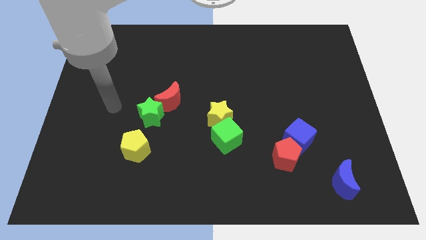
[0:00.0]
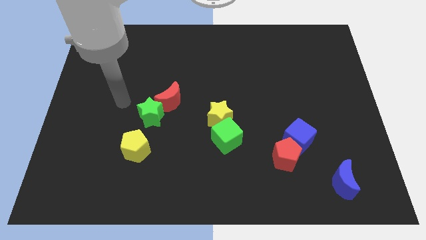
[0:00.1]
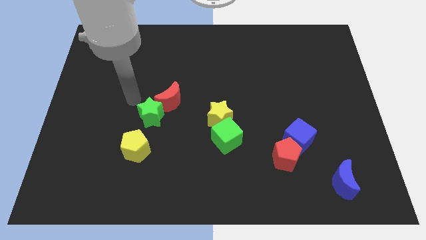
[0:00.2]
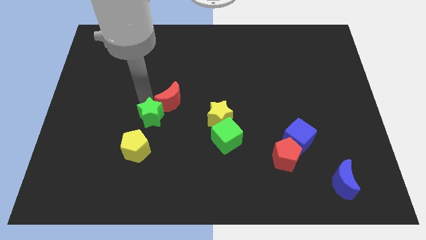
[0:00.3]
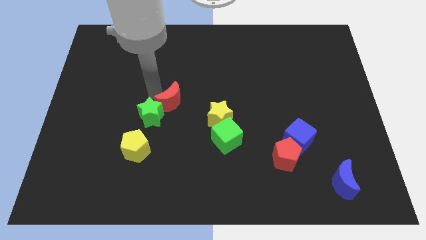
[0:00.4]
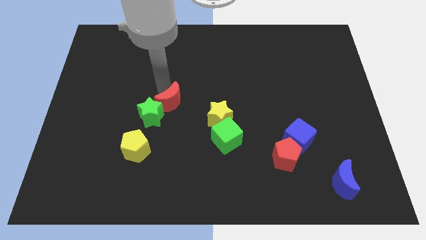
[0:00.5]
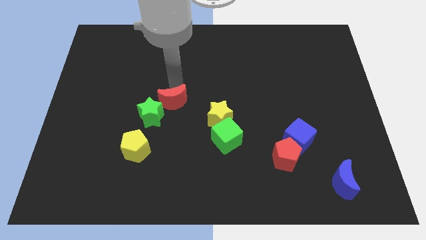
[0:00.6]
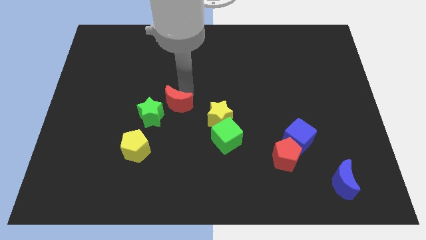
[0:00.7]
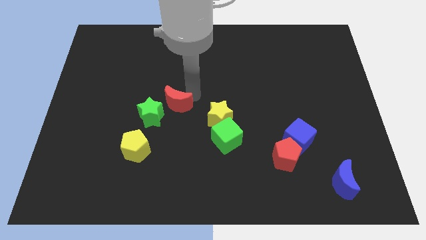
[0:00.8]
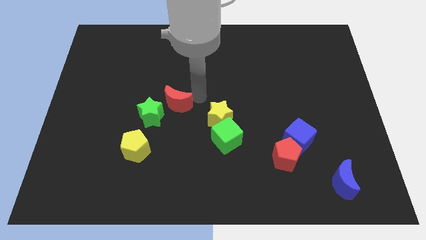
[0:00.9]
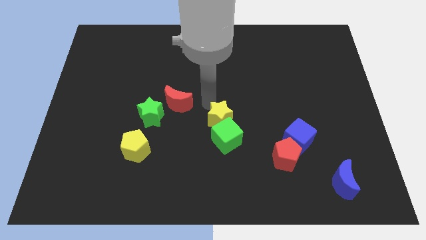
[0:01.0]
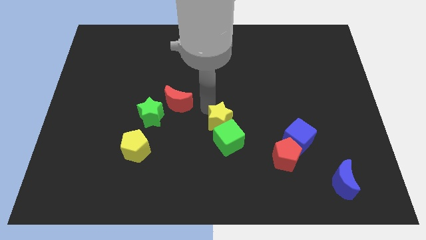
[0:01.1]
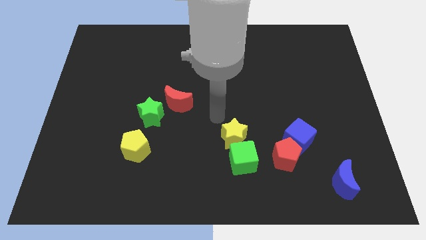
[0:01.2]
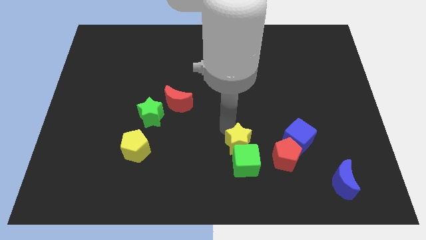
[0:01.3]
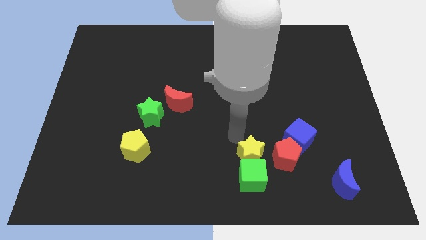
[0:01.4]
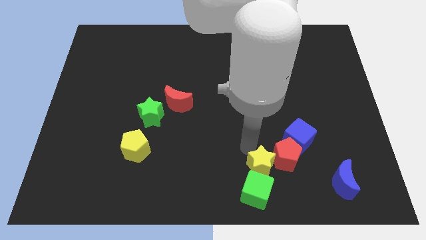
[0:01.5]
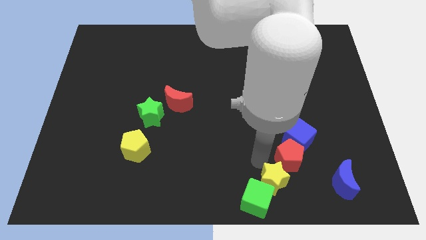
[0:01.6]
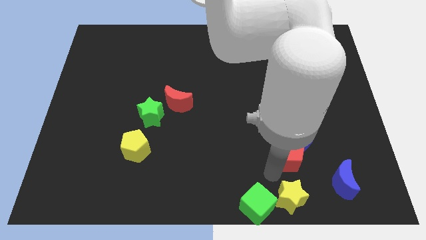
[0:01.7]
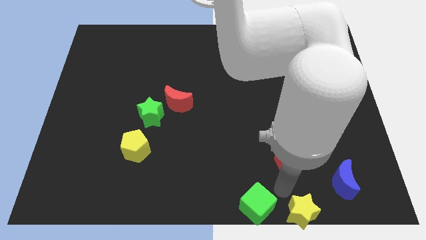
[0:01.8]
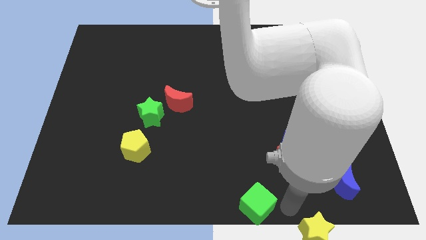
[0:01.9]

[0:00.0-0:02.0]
pull the green cube apart from the yellow star

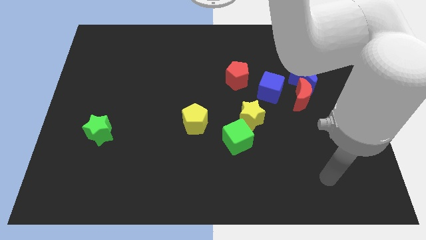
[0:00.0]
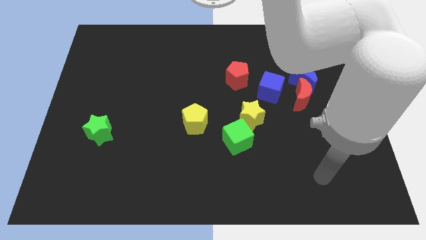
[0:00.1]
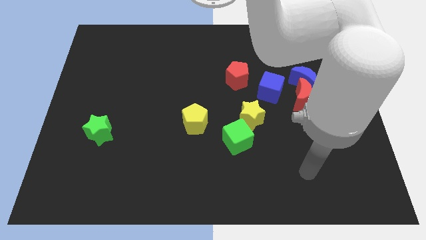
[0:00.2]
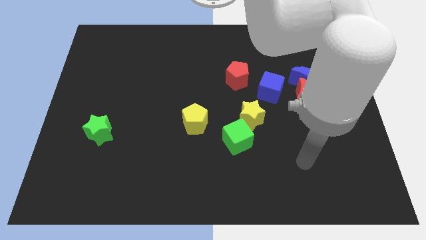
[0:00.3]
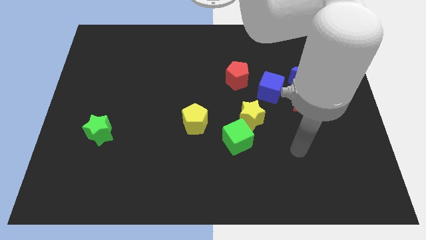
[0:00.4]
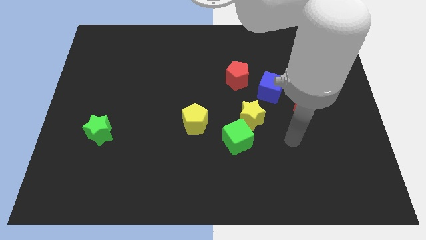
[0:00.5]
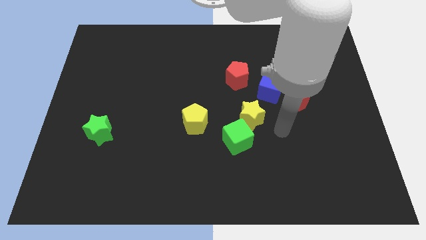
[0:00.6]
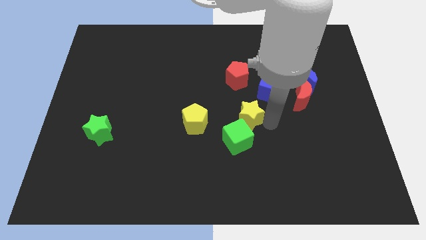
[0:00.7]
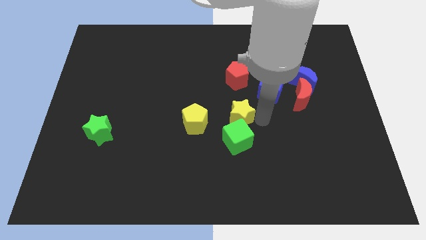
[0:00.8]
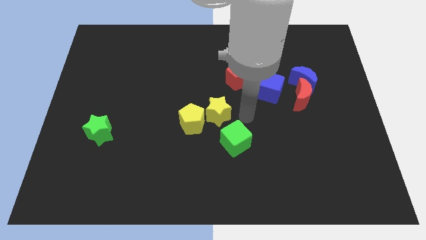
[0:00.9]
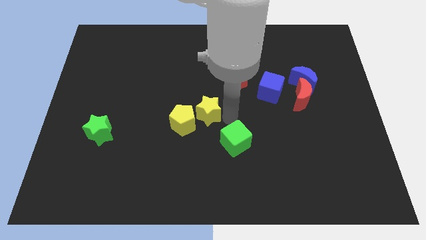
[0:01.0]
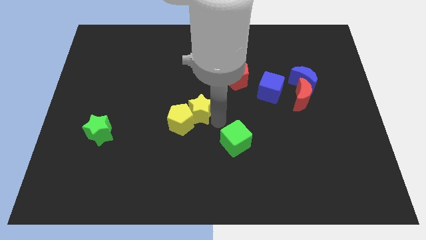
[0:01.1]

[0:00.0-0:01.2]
move the green cube away from the yellow star

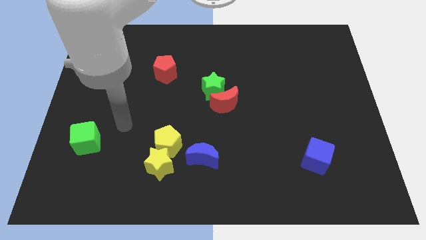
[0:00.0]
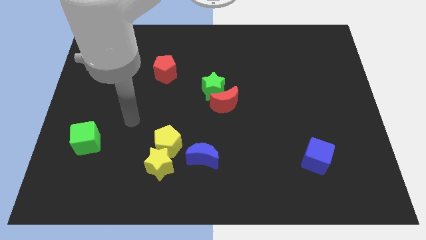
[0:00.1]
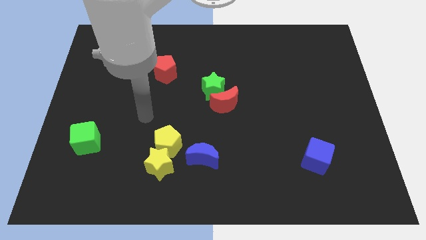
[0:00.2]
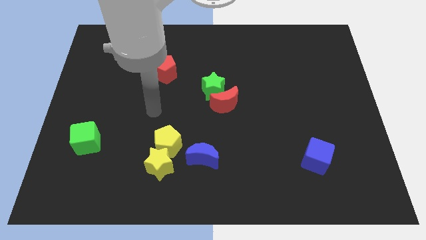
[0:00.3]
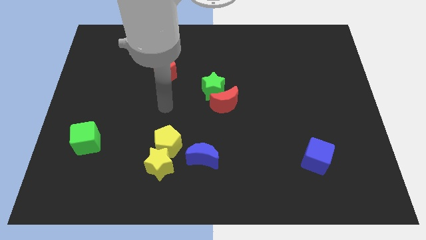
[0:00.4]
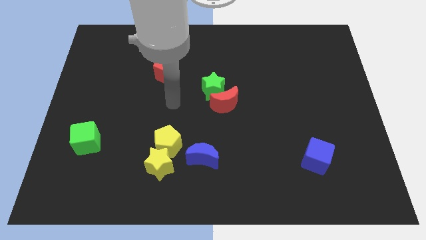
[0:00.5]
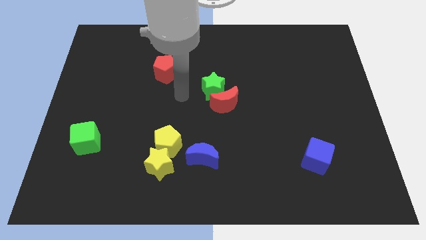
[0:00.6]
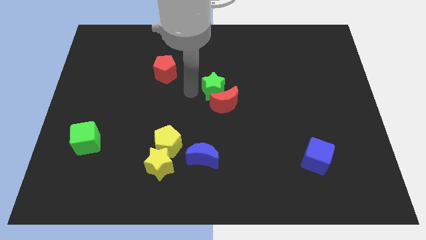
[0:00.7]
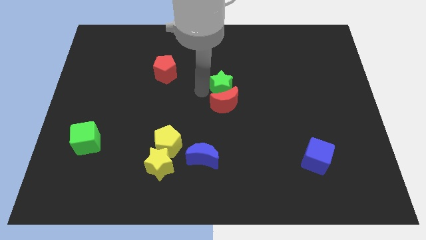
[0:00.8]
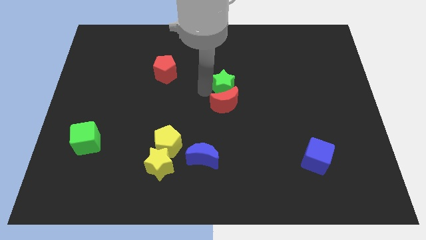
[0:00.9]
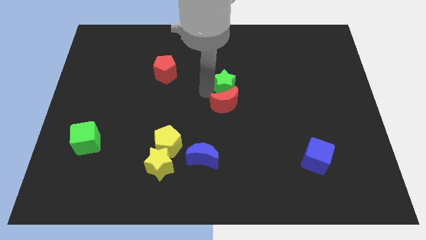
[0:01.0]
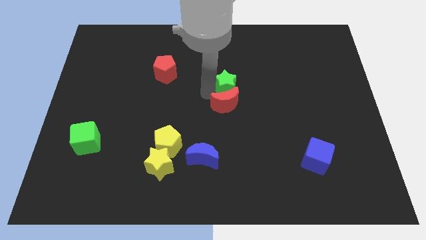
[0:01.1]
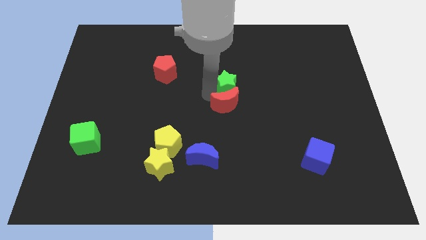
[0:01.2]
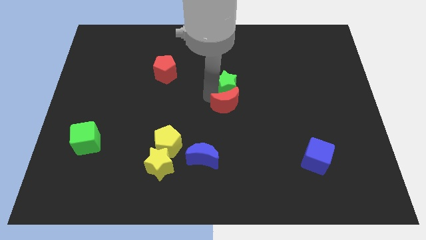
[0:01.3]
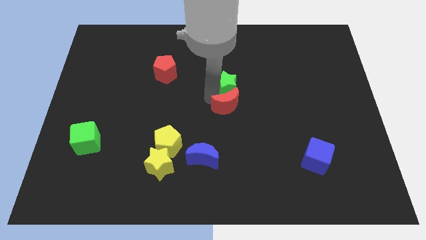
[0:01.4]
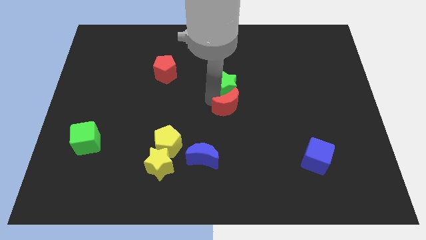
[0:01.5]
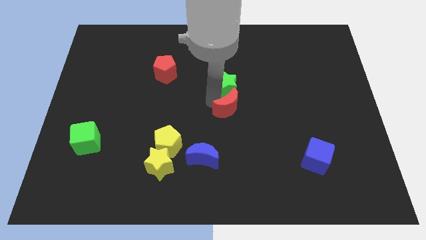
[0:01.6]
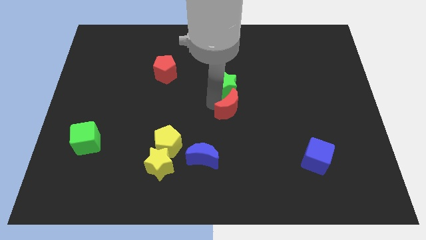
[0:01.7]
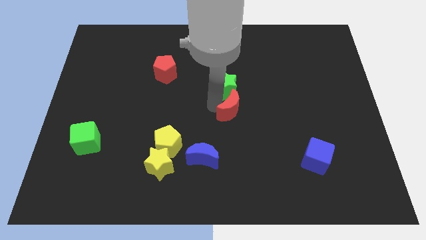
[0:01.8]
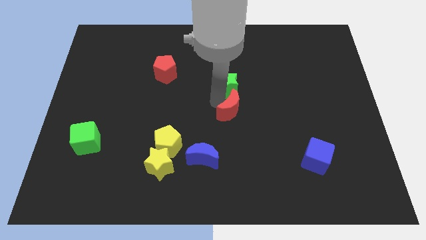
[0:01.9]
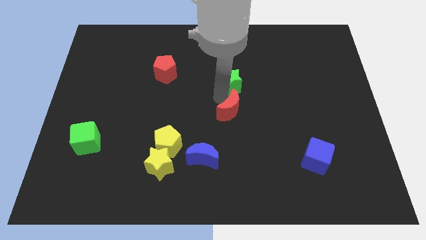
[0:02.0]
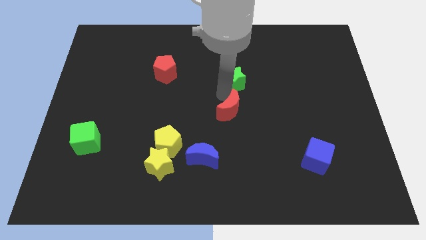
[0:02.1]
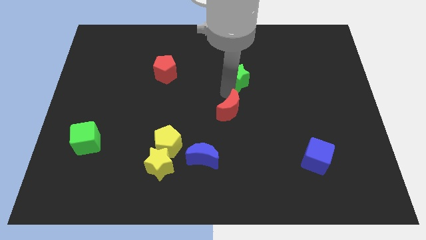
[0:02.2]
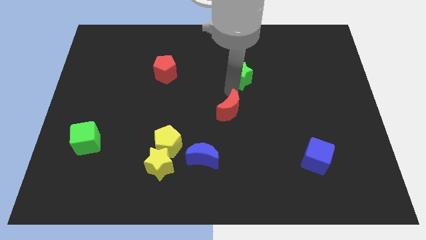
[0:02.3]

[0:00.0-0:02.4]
move the red moon away from the green star

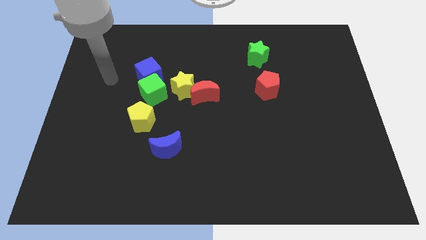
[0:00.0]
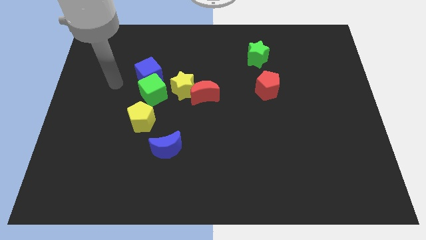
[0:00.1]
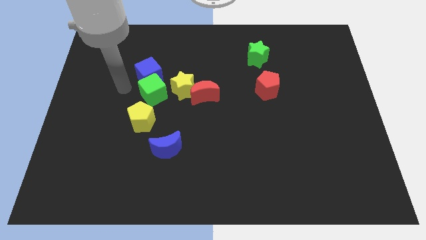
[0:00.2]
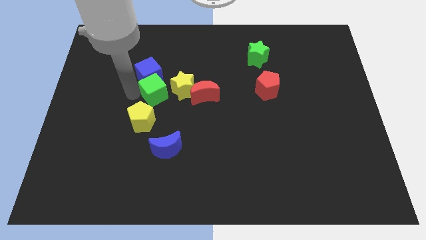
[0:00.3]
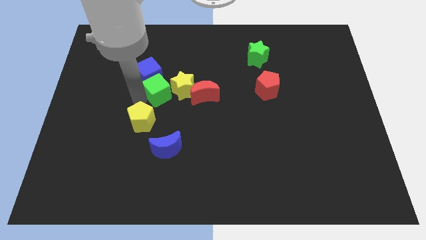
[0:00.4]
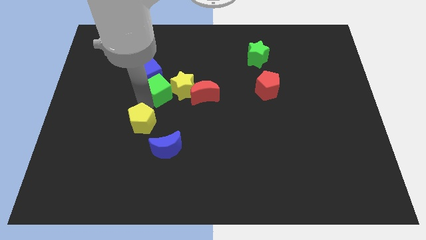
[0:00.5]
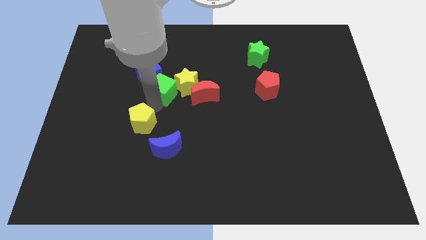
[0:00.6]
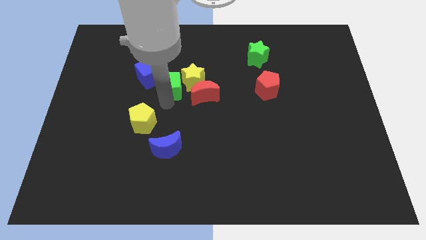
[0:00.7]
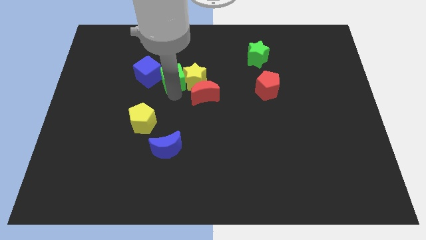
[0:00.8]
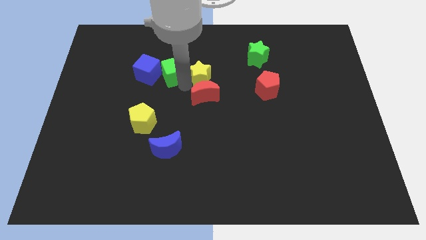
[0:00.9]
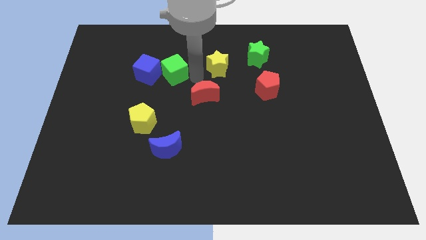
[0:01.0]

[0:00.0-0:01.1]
move the red moon away from the yellow star

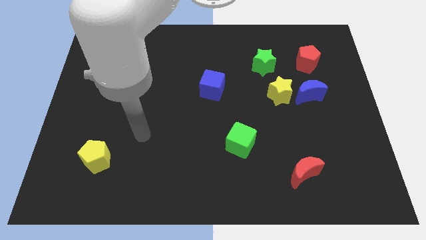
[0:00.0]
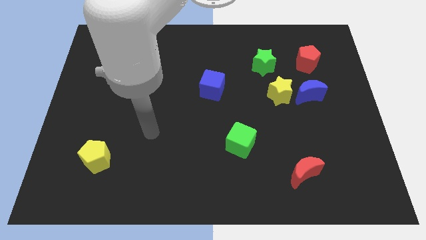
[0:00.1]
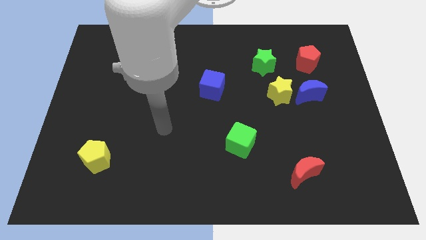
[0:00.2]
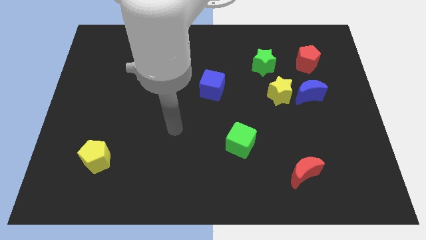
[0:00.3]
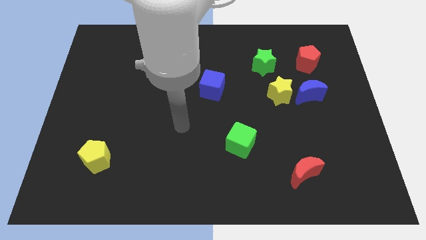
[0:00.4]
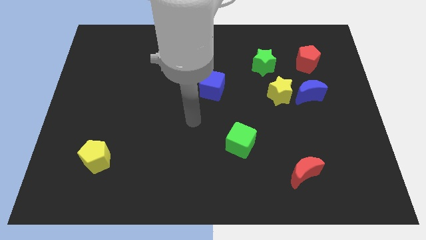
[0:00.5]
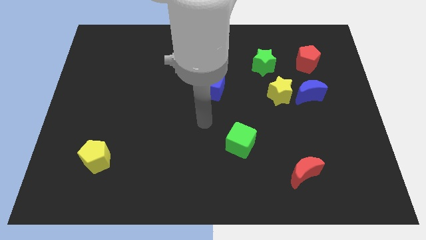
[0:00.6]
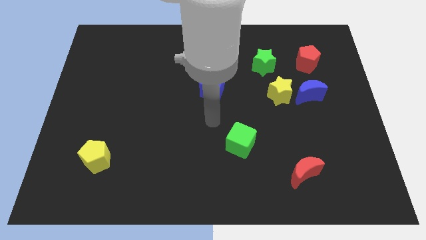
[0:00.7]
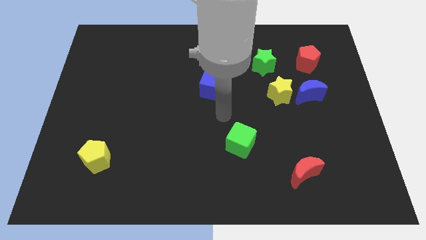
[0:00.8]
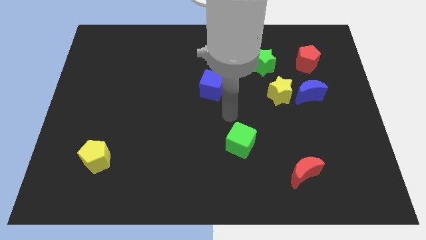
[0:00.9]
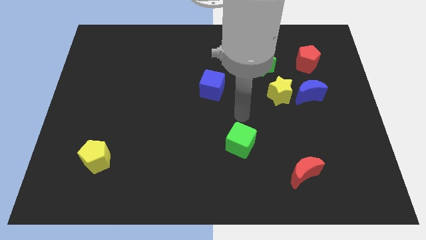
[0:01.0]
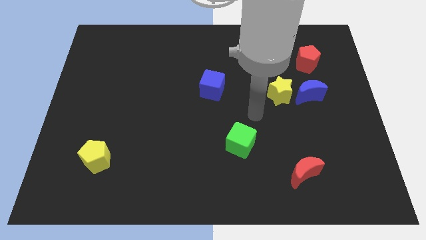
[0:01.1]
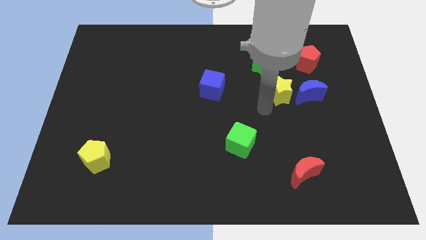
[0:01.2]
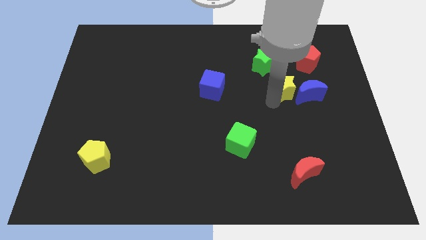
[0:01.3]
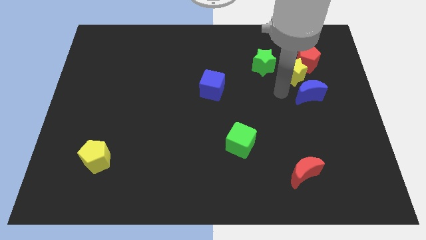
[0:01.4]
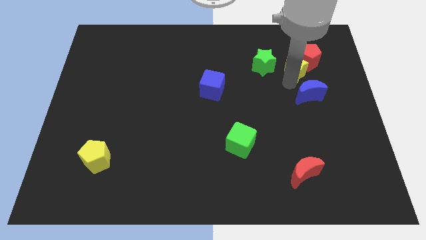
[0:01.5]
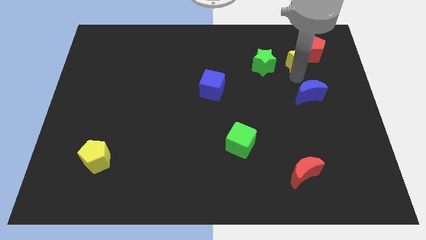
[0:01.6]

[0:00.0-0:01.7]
pull the blue moon apart from the yellow star

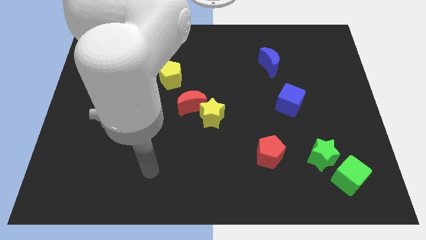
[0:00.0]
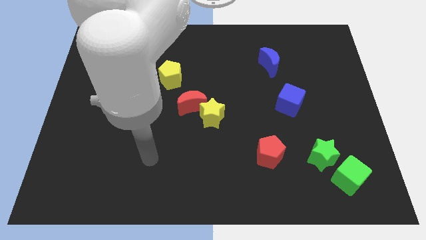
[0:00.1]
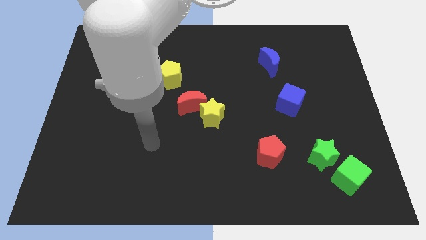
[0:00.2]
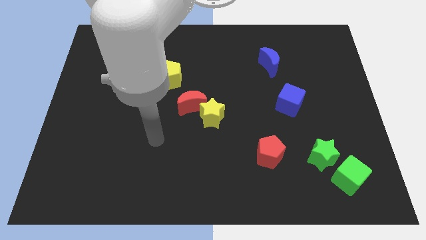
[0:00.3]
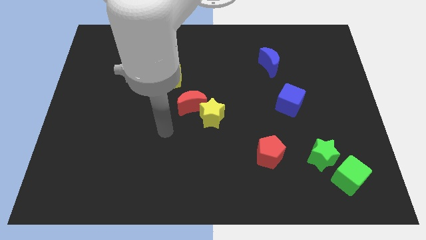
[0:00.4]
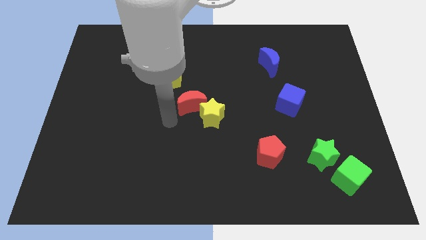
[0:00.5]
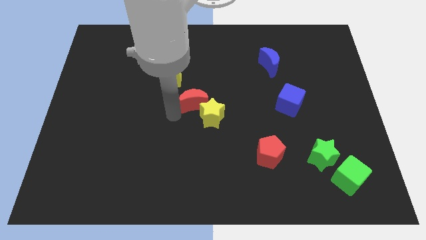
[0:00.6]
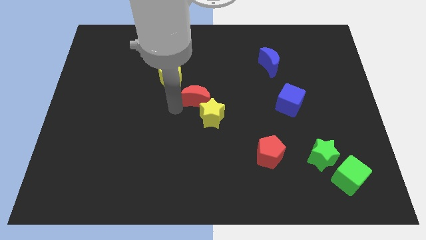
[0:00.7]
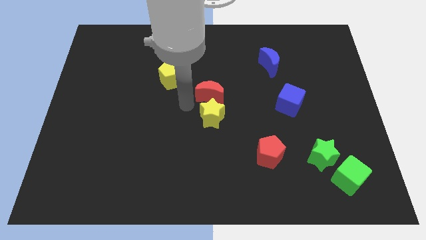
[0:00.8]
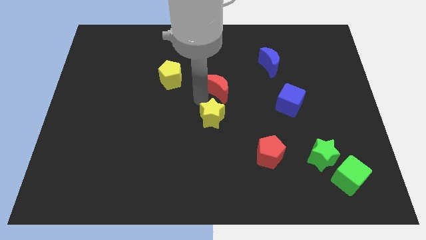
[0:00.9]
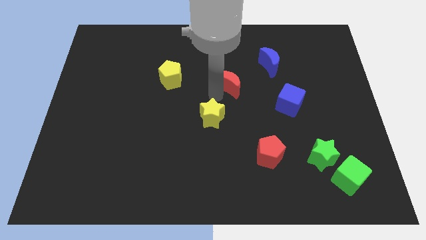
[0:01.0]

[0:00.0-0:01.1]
move the yellow star away from the red moon
